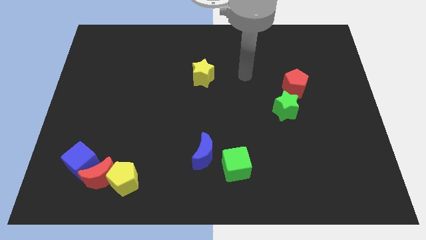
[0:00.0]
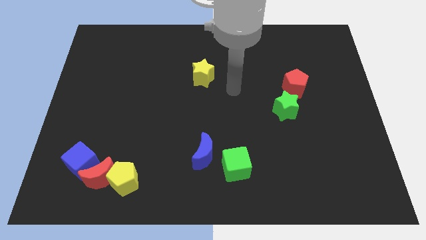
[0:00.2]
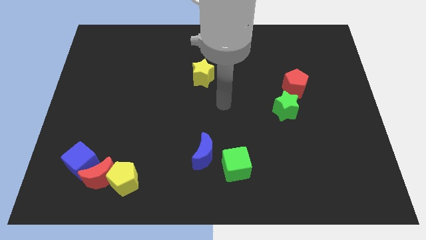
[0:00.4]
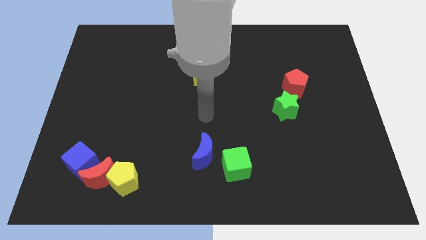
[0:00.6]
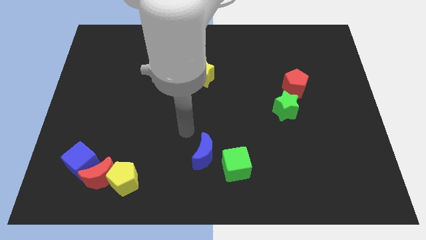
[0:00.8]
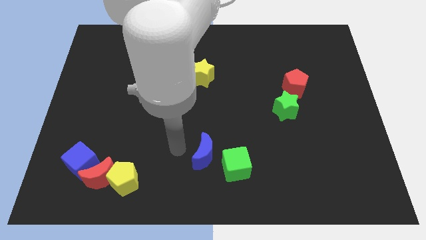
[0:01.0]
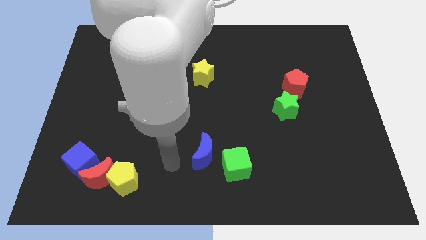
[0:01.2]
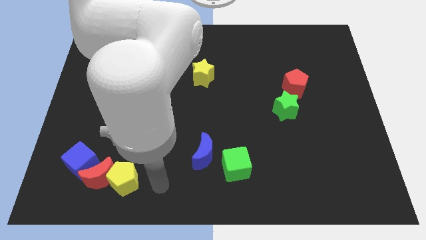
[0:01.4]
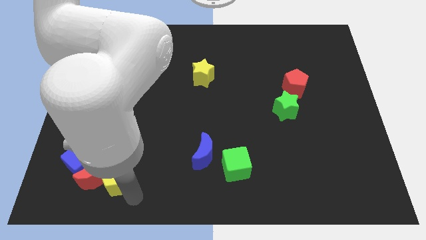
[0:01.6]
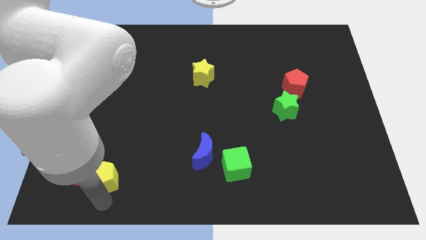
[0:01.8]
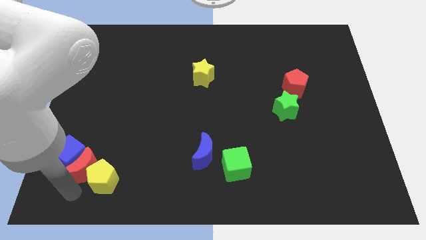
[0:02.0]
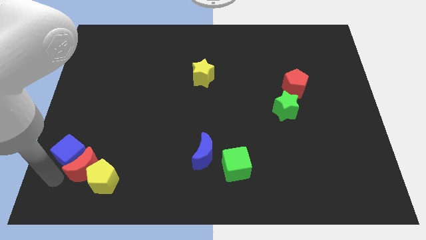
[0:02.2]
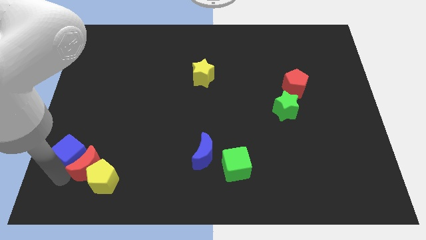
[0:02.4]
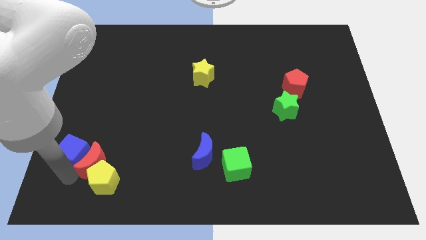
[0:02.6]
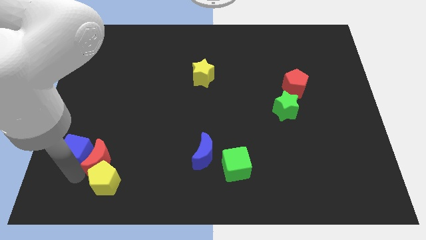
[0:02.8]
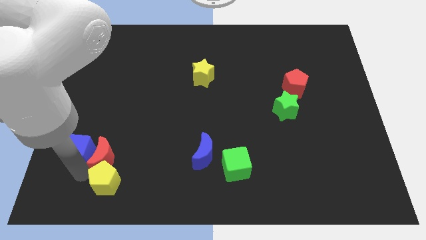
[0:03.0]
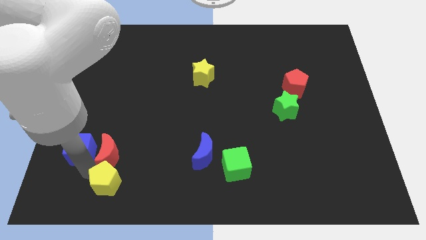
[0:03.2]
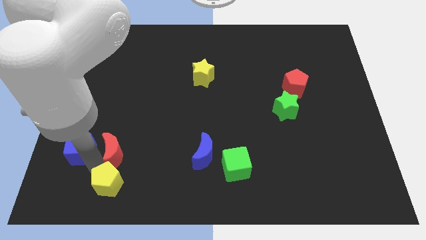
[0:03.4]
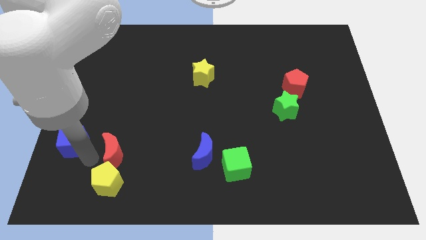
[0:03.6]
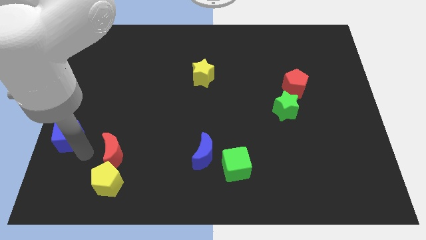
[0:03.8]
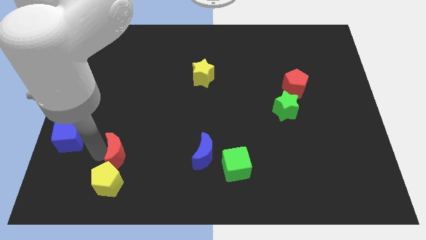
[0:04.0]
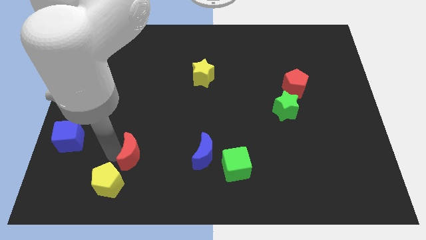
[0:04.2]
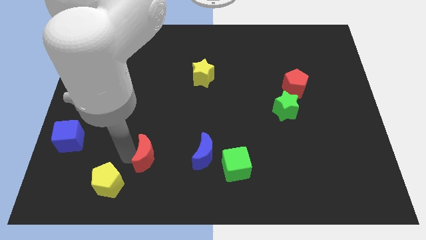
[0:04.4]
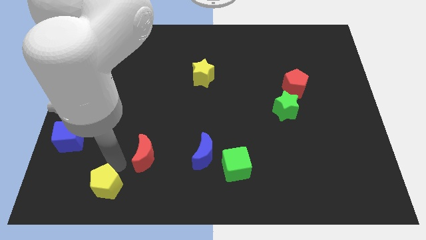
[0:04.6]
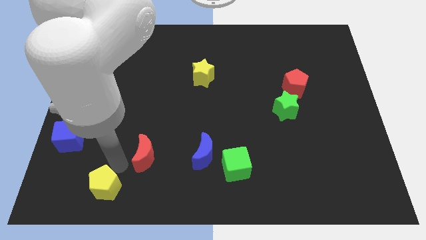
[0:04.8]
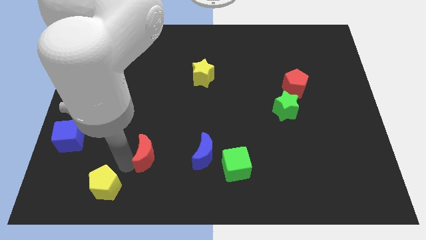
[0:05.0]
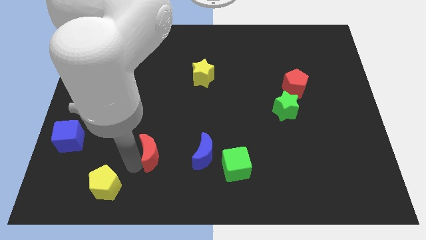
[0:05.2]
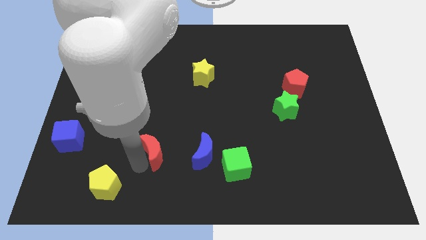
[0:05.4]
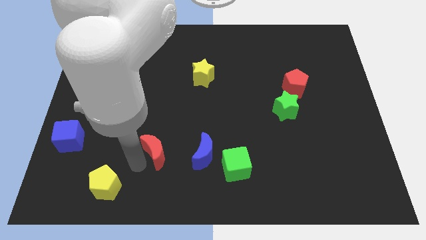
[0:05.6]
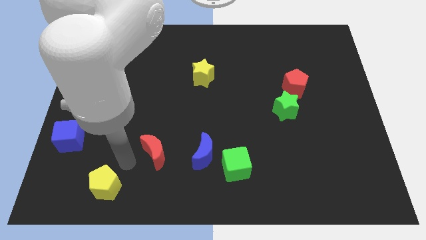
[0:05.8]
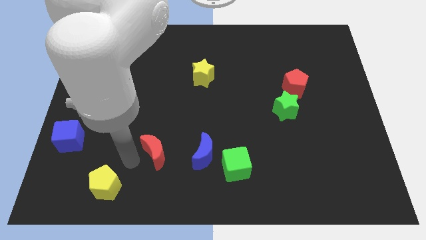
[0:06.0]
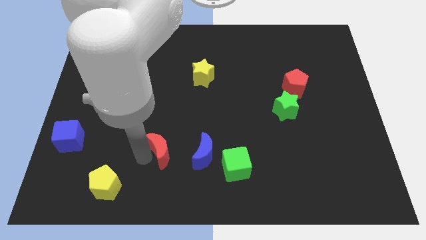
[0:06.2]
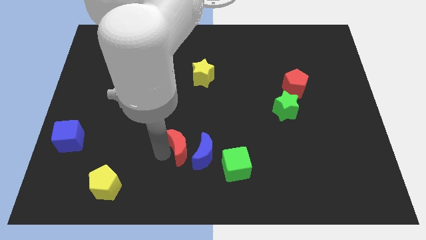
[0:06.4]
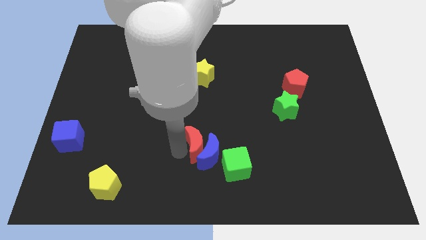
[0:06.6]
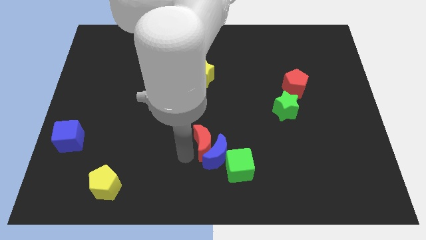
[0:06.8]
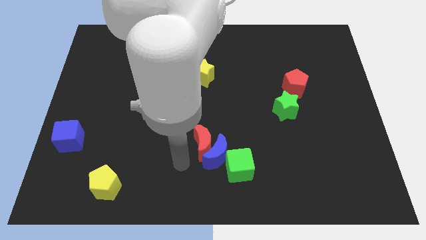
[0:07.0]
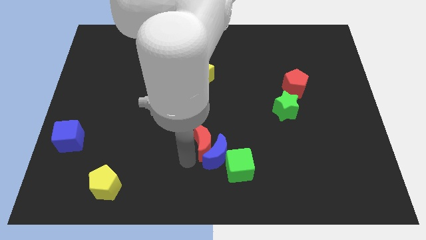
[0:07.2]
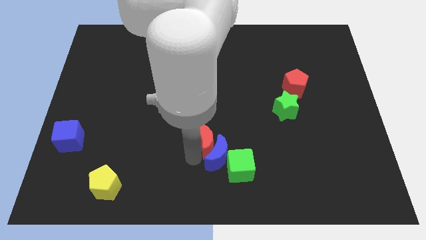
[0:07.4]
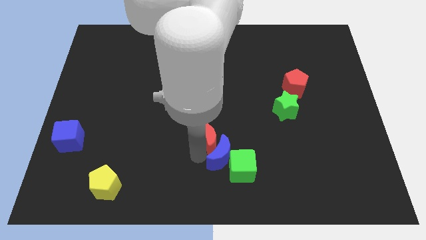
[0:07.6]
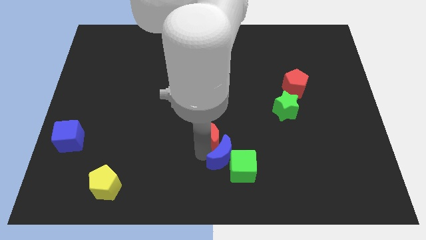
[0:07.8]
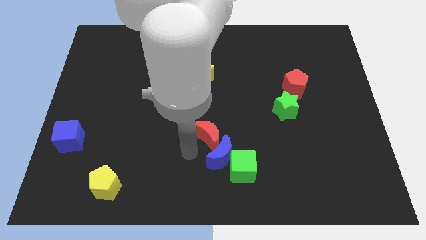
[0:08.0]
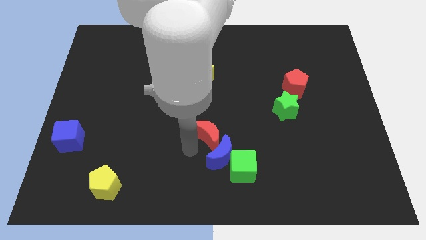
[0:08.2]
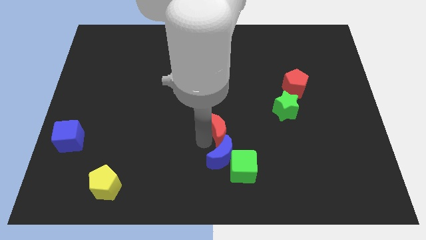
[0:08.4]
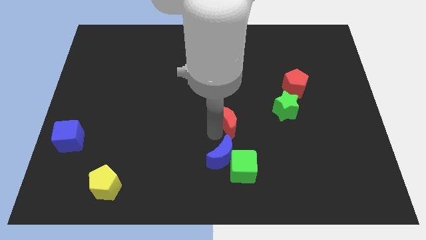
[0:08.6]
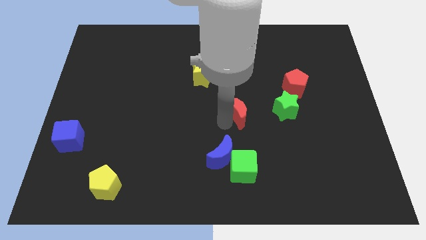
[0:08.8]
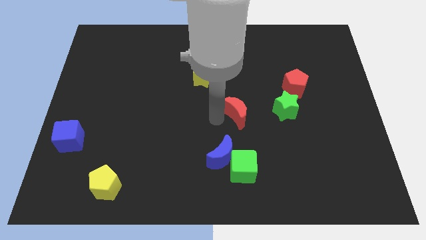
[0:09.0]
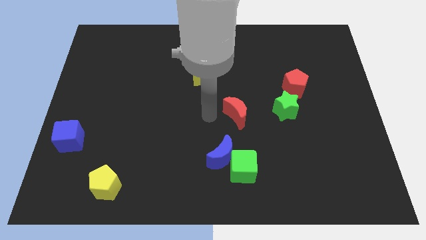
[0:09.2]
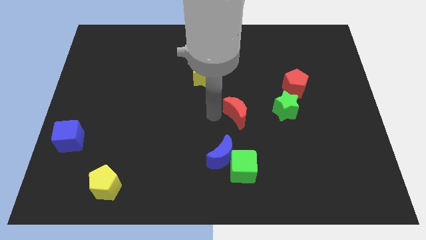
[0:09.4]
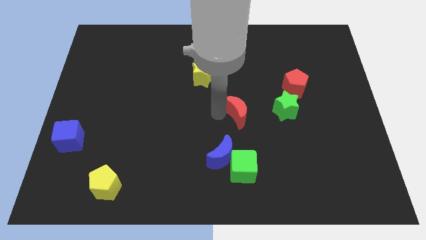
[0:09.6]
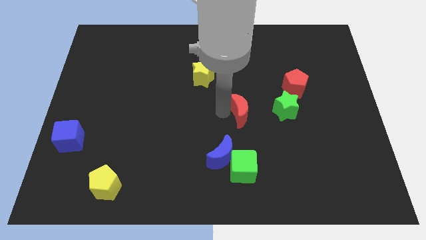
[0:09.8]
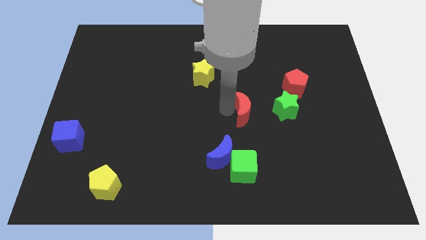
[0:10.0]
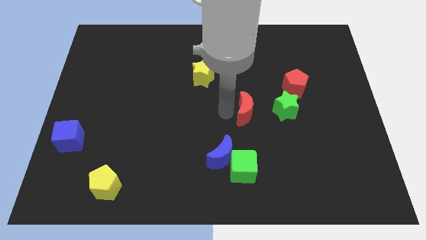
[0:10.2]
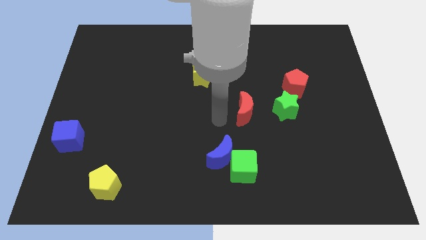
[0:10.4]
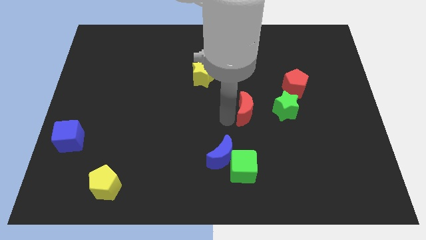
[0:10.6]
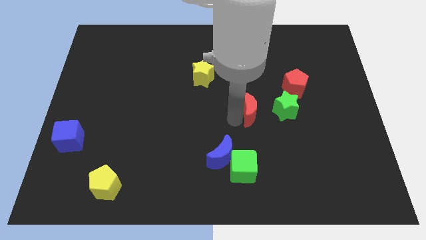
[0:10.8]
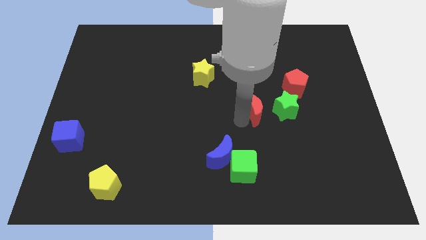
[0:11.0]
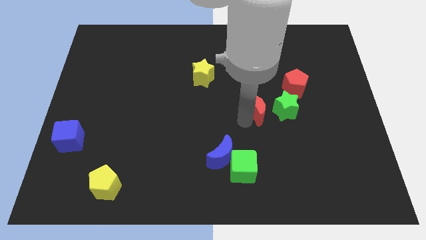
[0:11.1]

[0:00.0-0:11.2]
put the red moon to the bottom left of the red pentagon

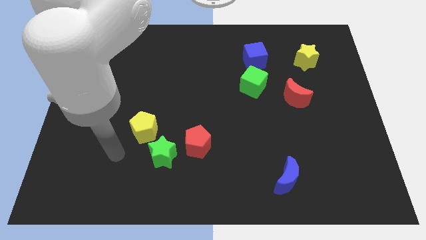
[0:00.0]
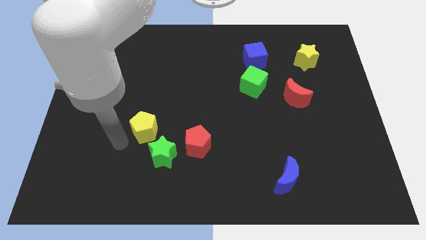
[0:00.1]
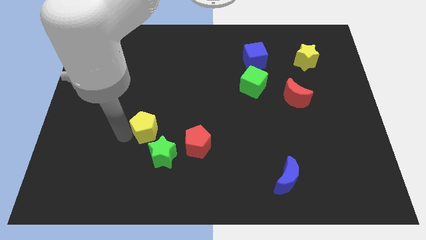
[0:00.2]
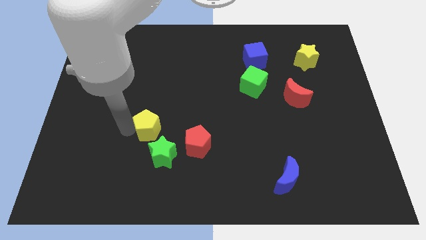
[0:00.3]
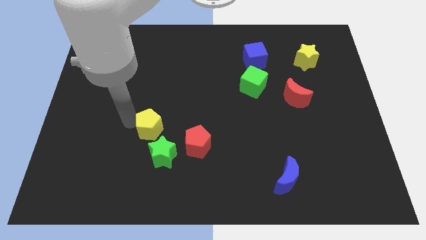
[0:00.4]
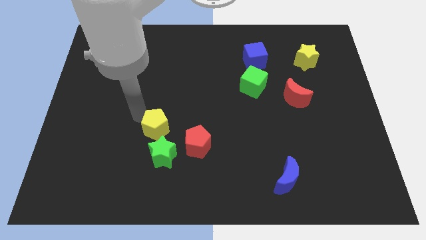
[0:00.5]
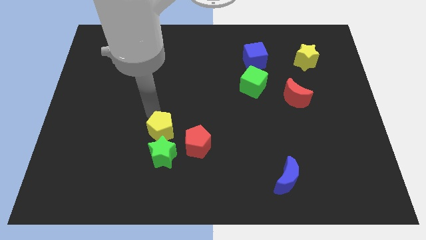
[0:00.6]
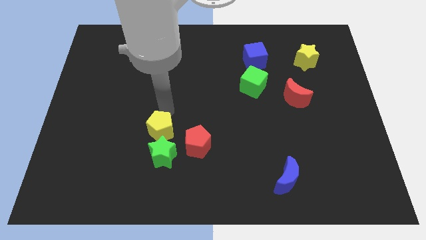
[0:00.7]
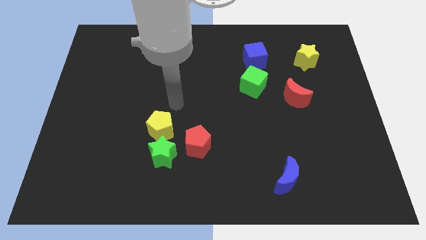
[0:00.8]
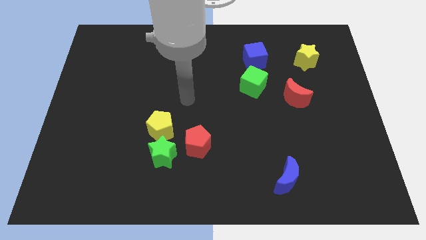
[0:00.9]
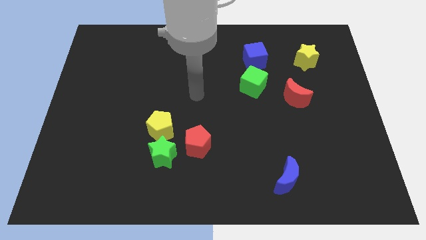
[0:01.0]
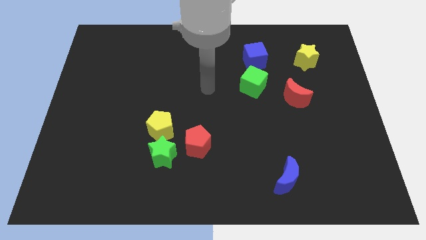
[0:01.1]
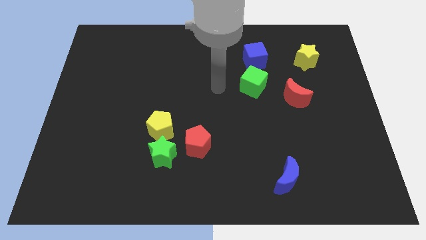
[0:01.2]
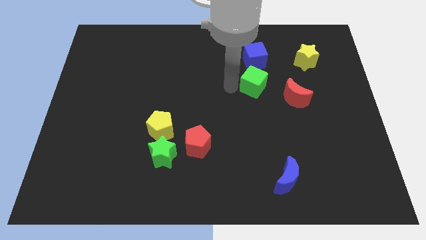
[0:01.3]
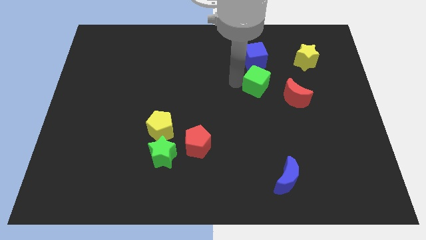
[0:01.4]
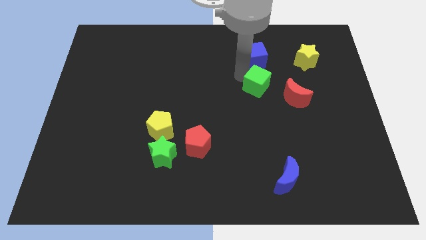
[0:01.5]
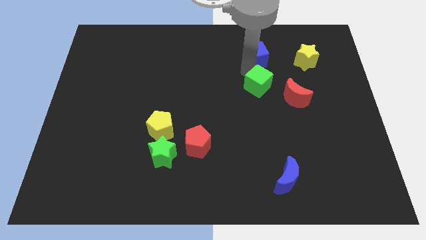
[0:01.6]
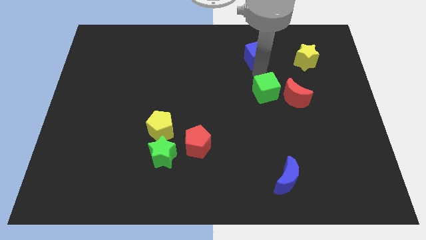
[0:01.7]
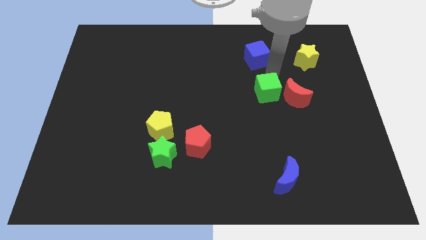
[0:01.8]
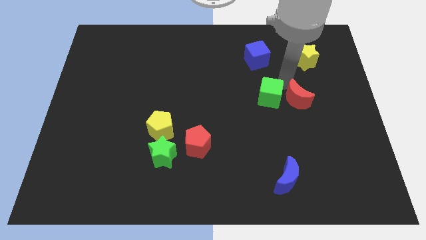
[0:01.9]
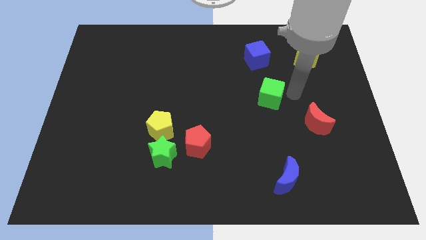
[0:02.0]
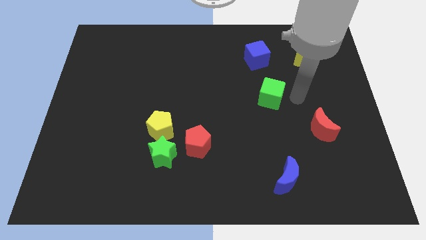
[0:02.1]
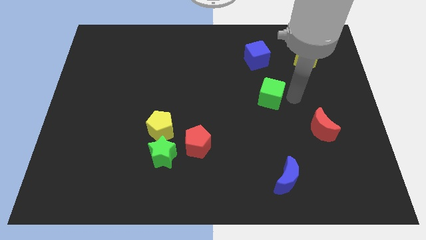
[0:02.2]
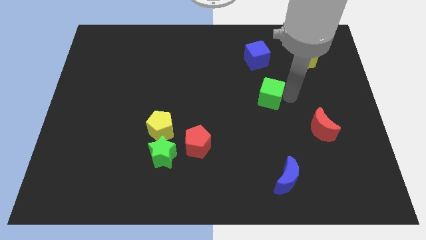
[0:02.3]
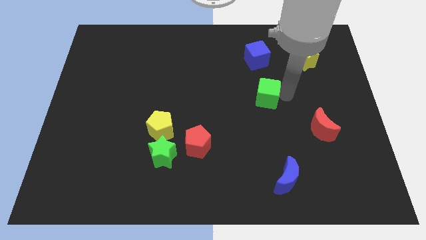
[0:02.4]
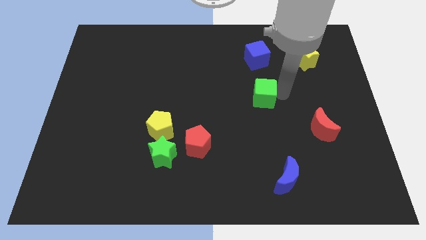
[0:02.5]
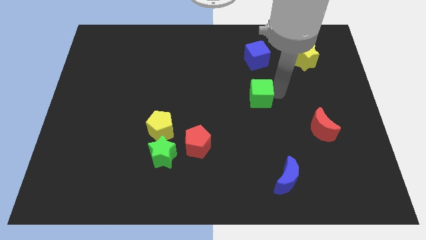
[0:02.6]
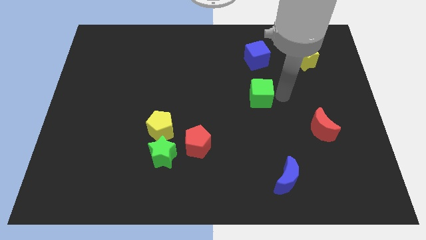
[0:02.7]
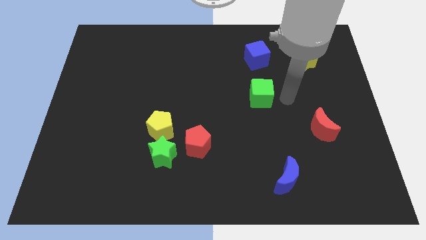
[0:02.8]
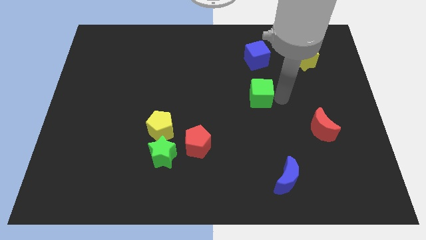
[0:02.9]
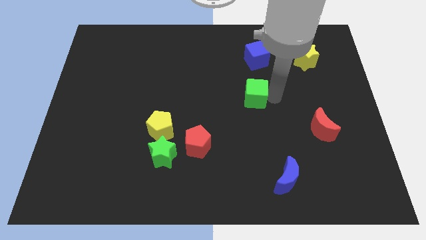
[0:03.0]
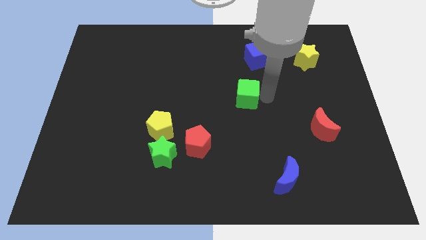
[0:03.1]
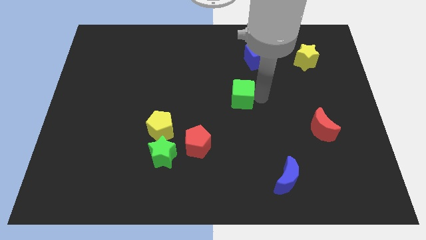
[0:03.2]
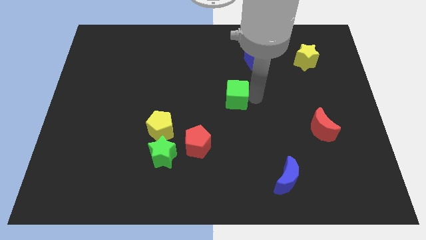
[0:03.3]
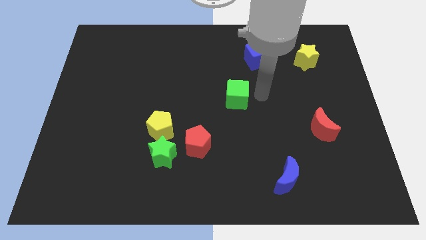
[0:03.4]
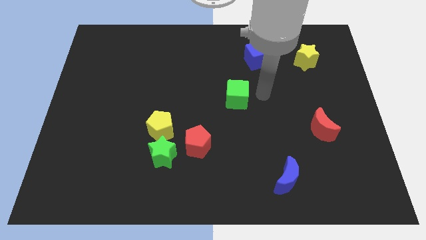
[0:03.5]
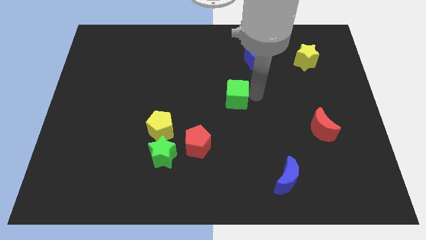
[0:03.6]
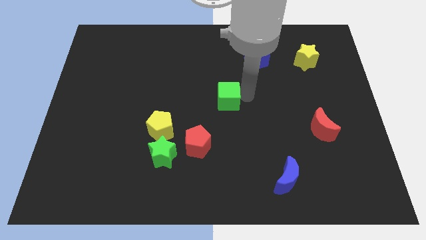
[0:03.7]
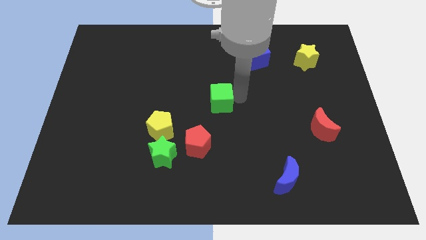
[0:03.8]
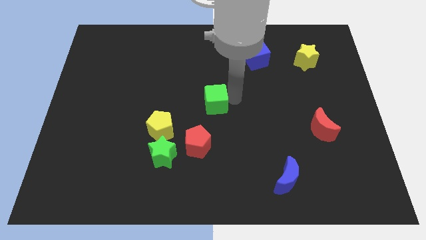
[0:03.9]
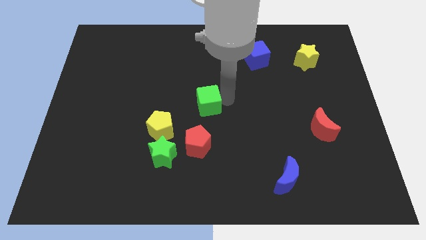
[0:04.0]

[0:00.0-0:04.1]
move the green cube to the top right side of the yellow pentagon
